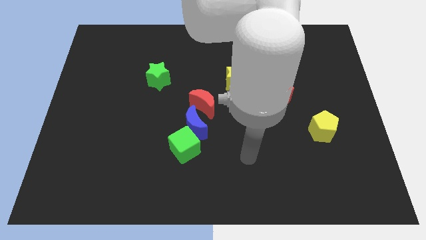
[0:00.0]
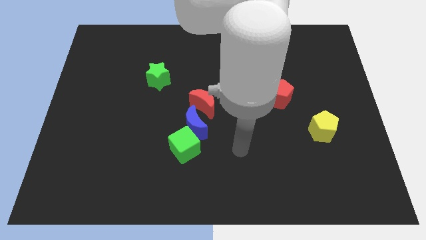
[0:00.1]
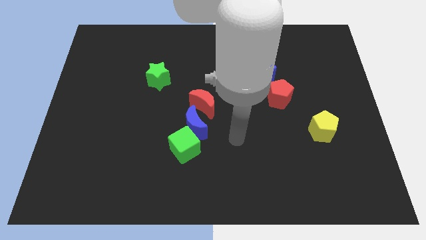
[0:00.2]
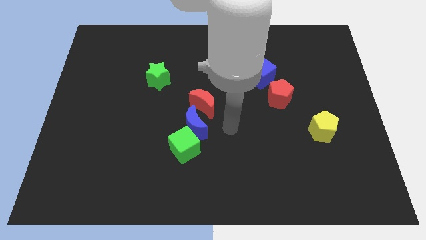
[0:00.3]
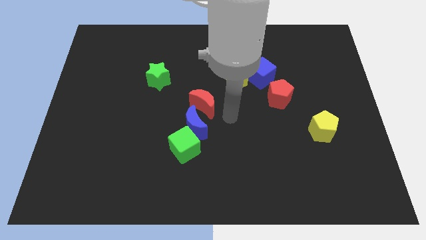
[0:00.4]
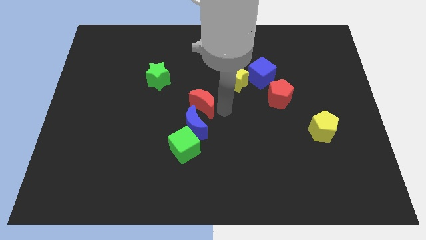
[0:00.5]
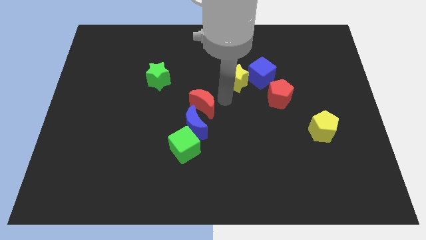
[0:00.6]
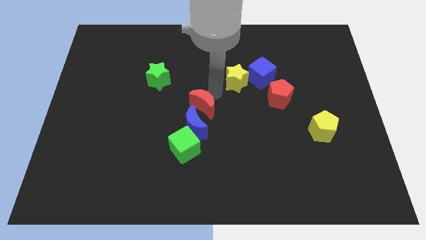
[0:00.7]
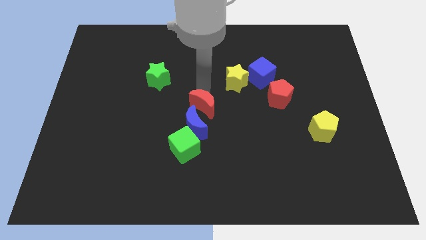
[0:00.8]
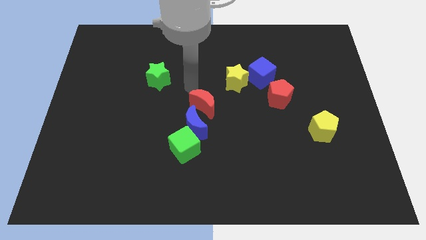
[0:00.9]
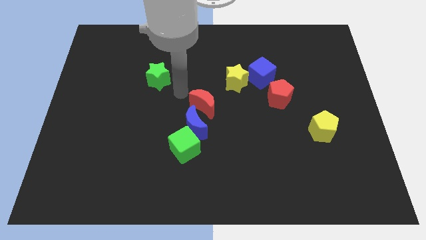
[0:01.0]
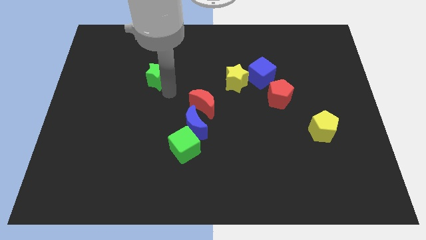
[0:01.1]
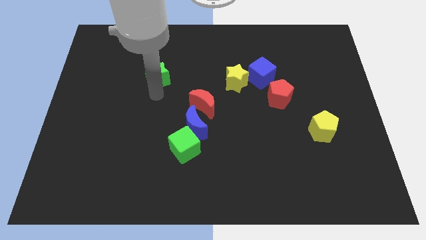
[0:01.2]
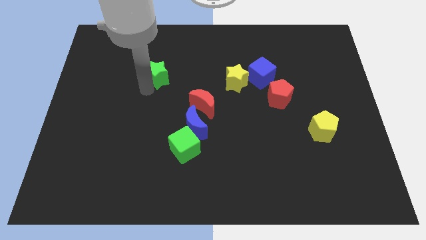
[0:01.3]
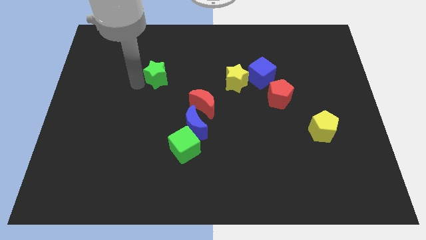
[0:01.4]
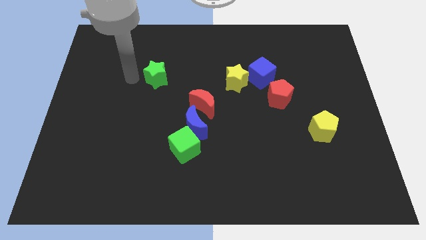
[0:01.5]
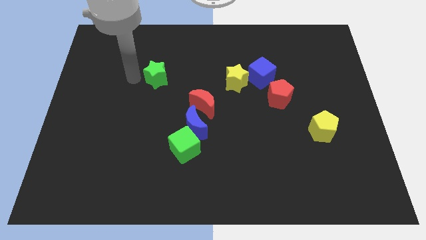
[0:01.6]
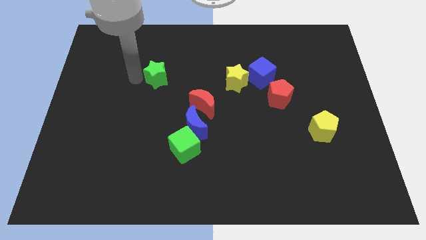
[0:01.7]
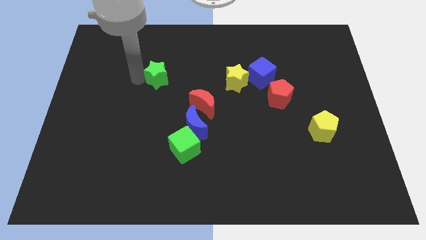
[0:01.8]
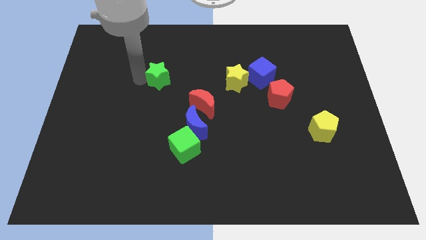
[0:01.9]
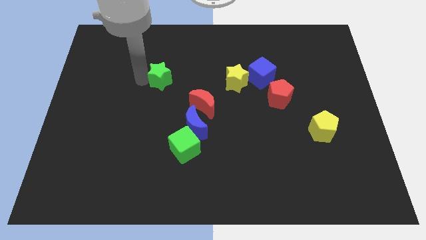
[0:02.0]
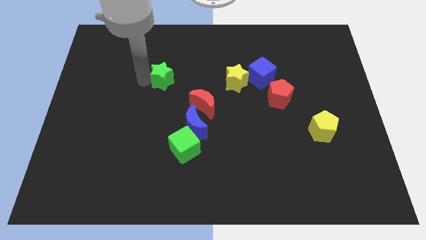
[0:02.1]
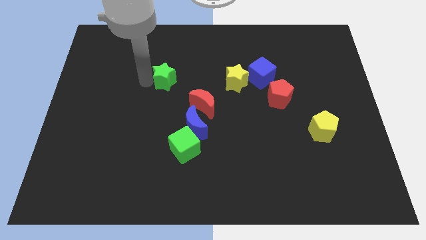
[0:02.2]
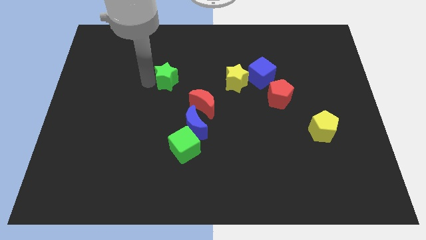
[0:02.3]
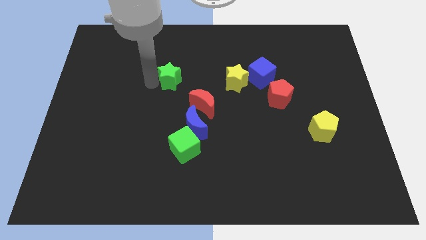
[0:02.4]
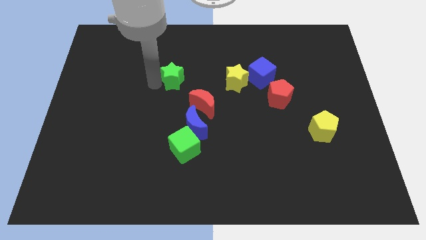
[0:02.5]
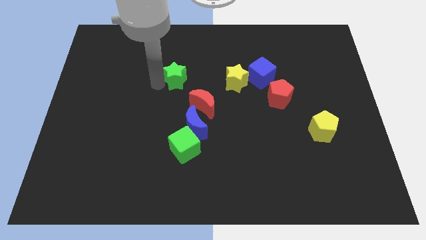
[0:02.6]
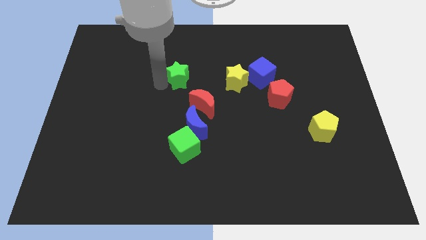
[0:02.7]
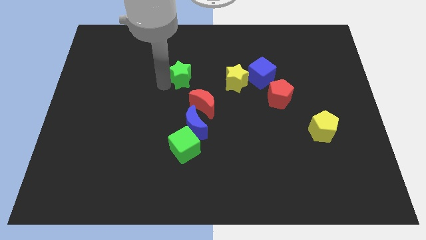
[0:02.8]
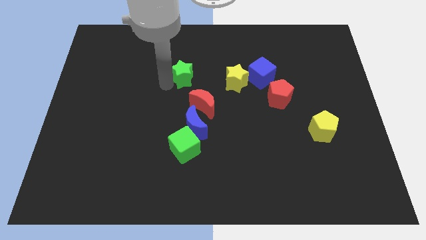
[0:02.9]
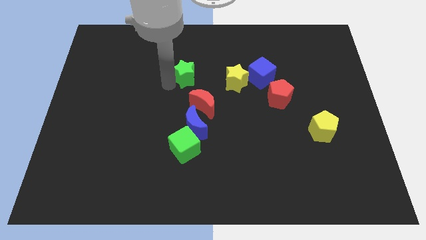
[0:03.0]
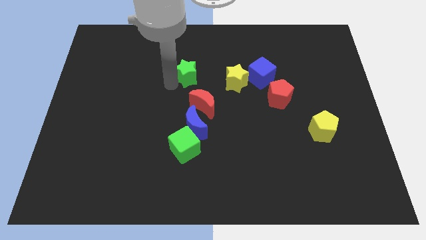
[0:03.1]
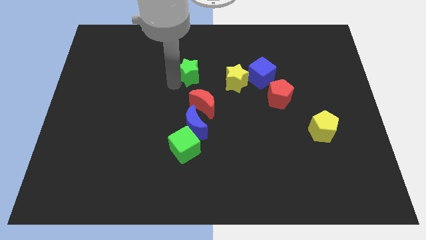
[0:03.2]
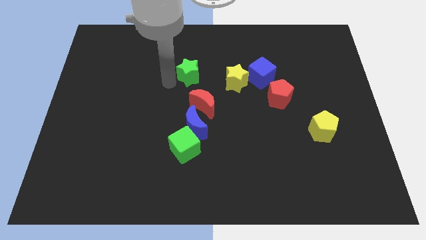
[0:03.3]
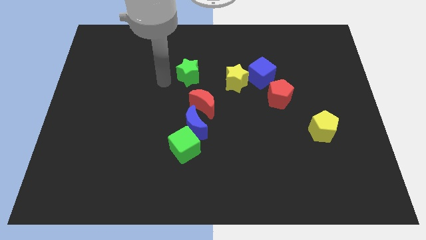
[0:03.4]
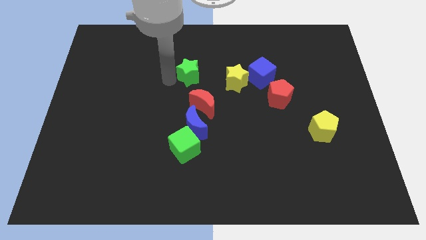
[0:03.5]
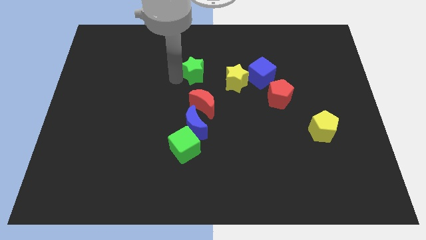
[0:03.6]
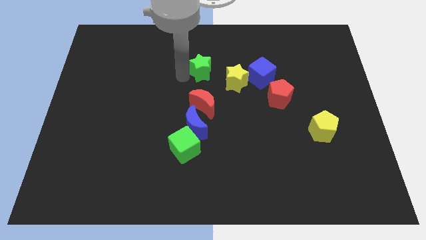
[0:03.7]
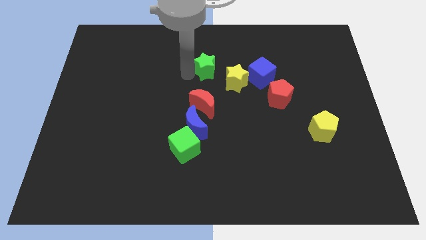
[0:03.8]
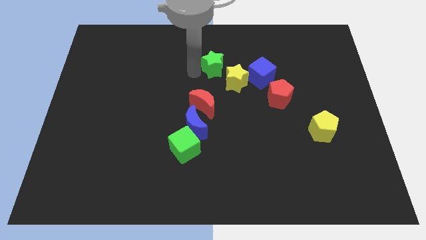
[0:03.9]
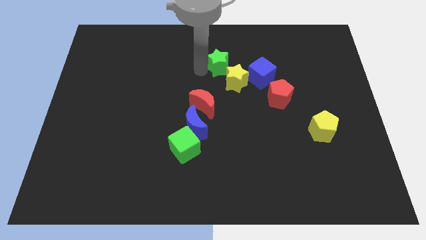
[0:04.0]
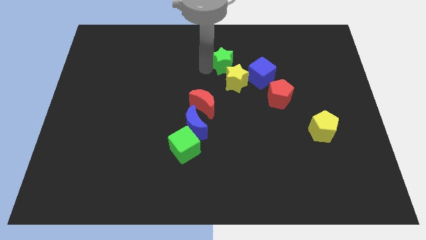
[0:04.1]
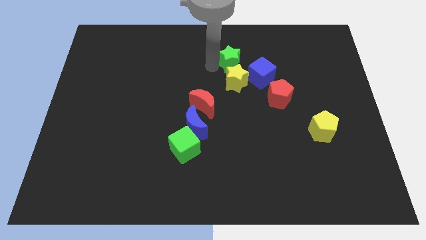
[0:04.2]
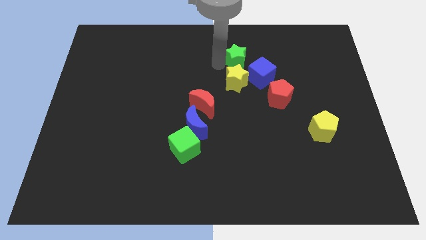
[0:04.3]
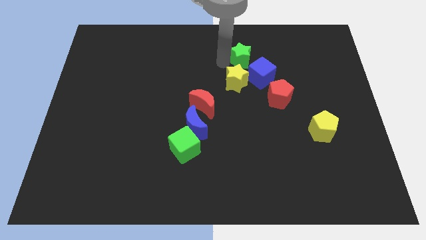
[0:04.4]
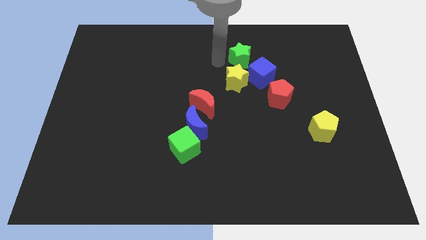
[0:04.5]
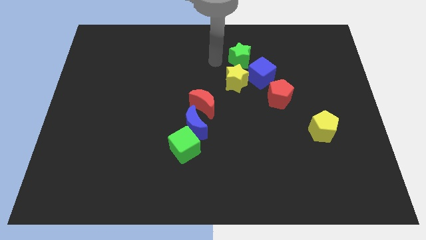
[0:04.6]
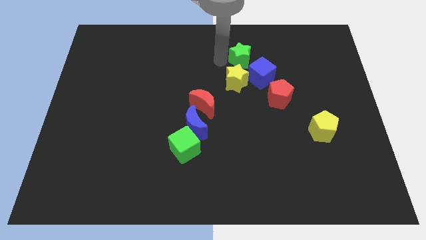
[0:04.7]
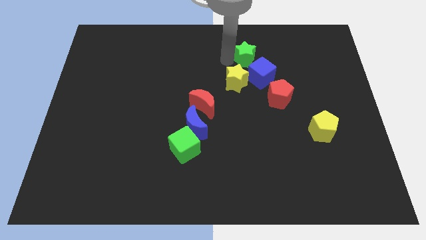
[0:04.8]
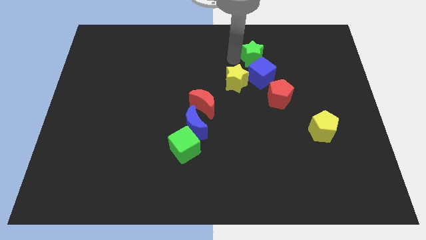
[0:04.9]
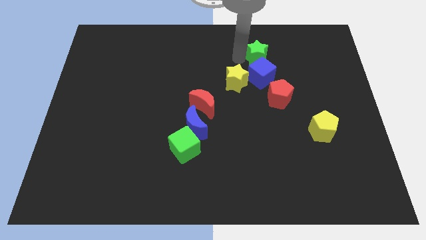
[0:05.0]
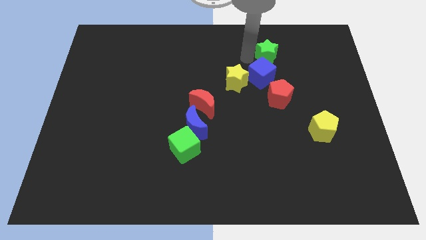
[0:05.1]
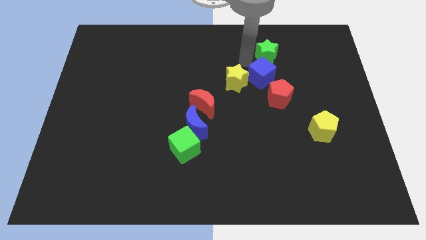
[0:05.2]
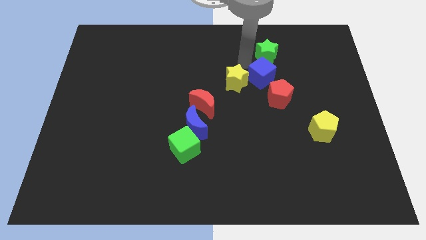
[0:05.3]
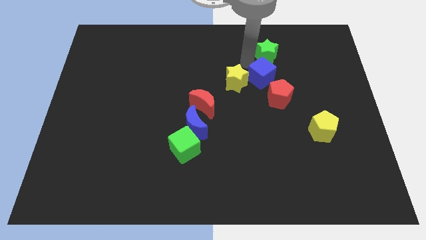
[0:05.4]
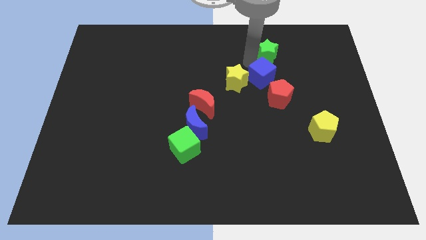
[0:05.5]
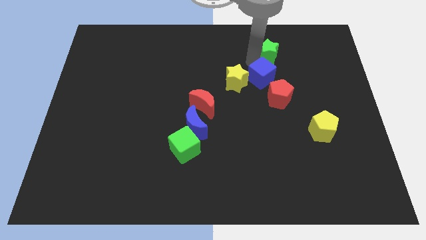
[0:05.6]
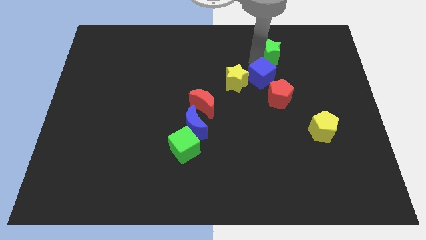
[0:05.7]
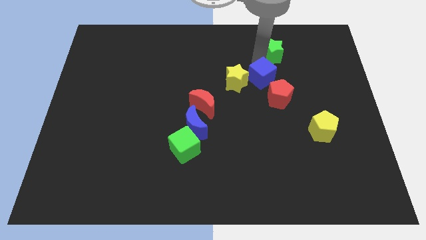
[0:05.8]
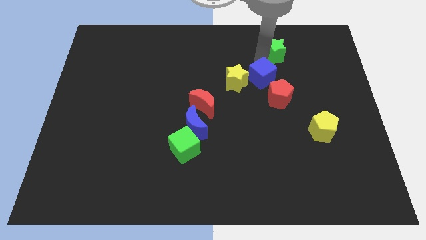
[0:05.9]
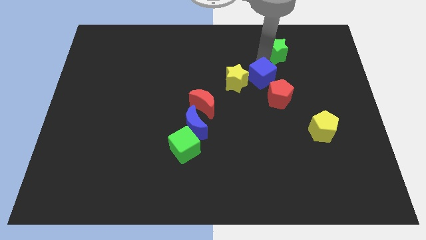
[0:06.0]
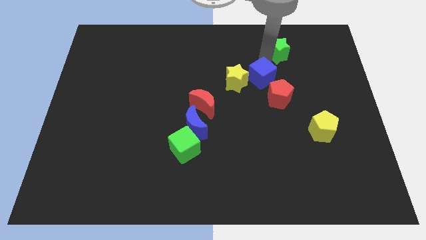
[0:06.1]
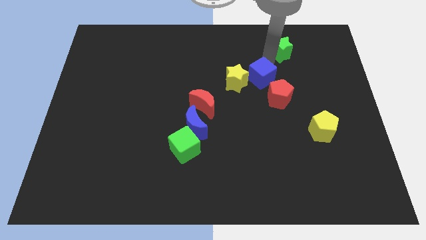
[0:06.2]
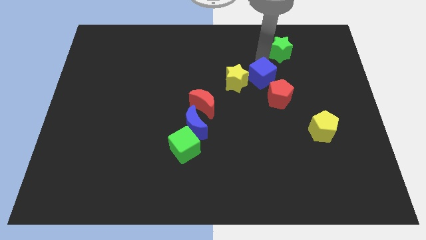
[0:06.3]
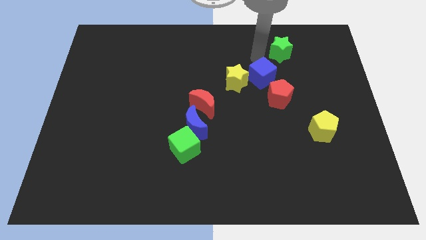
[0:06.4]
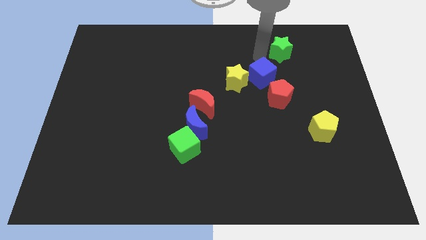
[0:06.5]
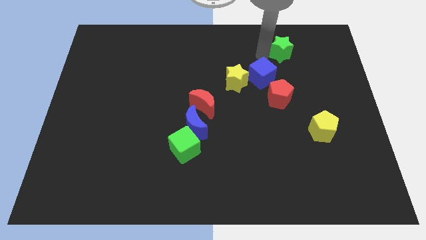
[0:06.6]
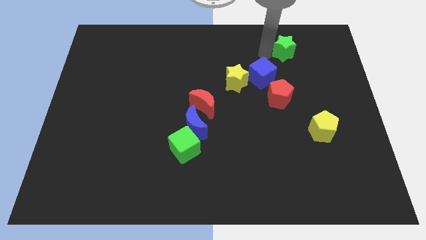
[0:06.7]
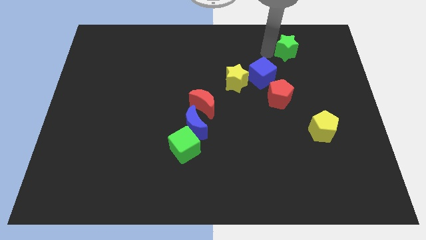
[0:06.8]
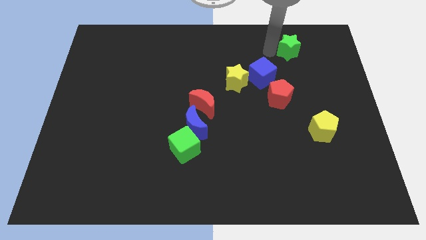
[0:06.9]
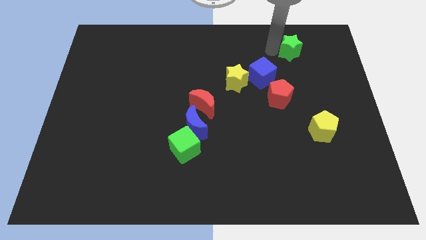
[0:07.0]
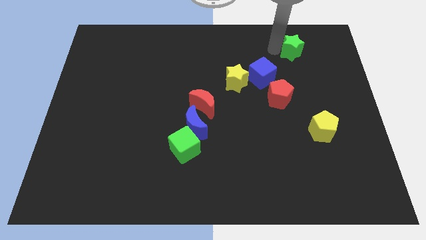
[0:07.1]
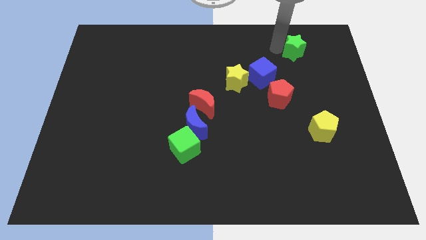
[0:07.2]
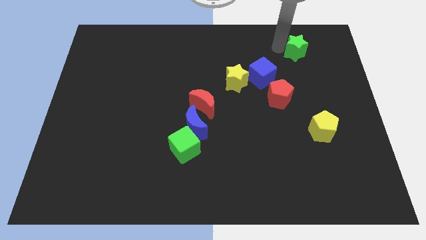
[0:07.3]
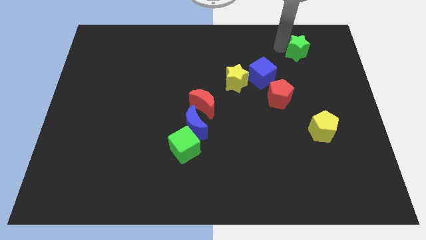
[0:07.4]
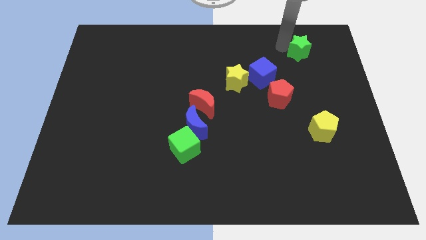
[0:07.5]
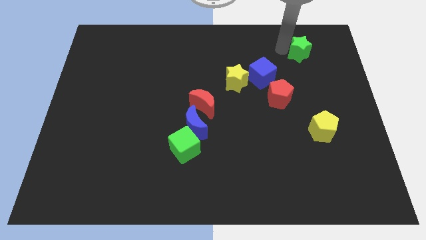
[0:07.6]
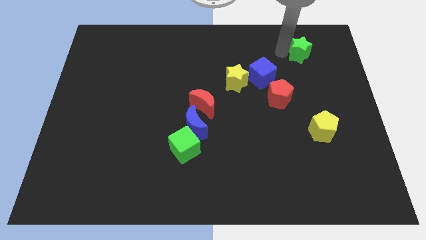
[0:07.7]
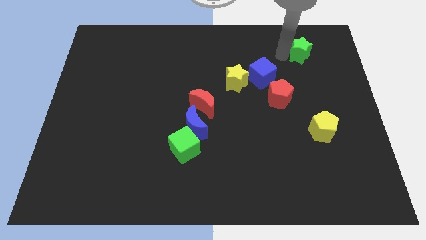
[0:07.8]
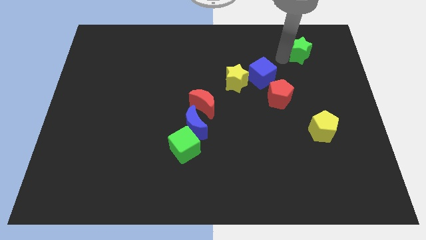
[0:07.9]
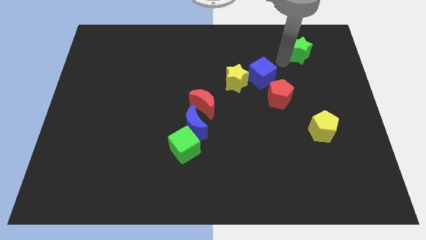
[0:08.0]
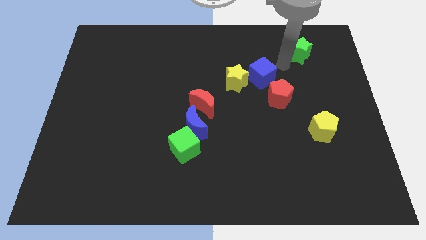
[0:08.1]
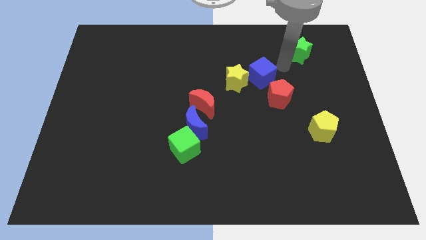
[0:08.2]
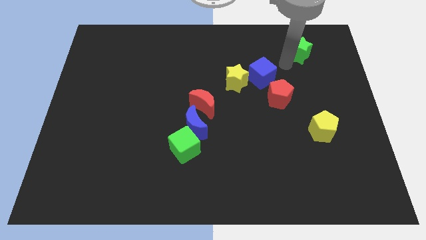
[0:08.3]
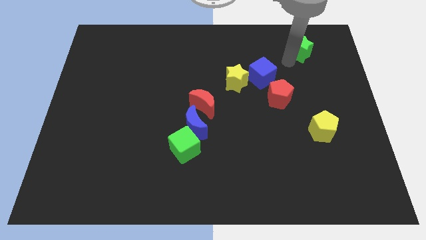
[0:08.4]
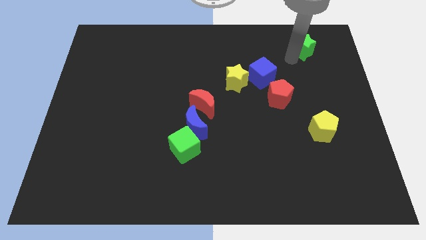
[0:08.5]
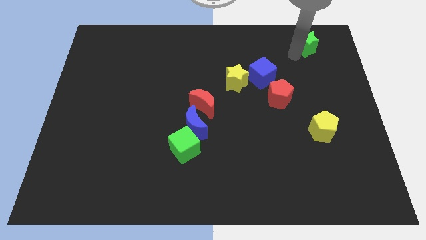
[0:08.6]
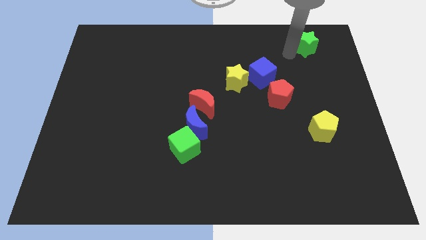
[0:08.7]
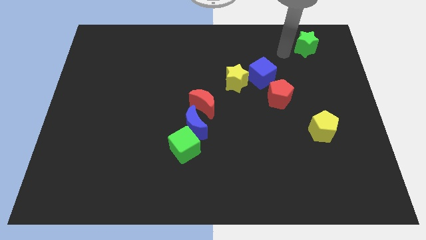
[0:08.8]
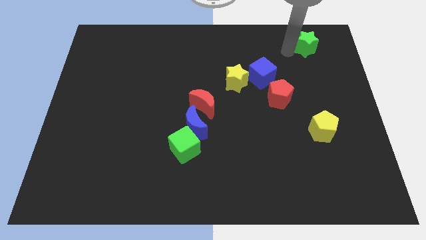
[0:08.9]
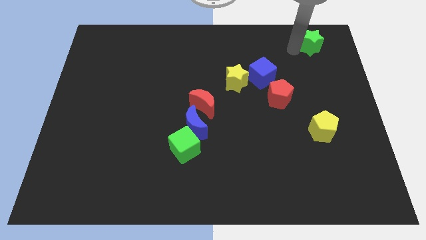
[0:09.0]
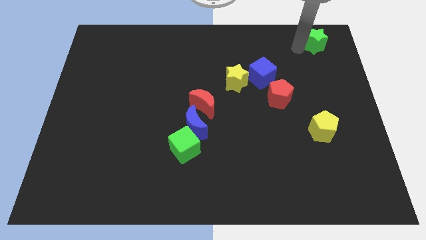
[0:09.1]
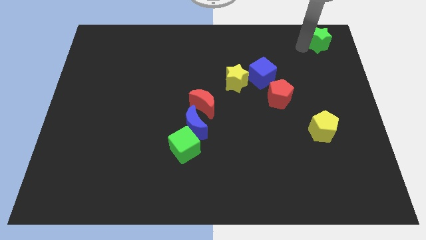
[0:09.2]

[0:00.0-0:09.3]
put the green star to the top right of the board
